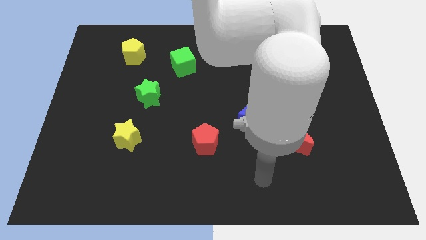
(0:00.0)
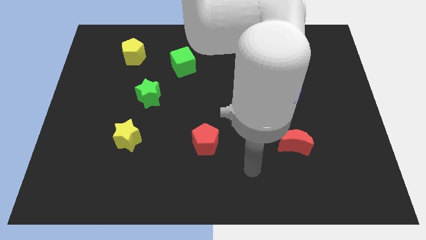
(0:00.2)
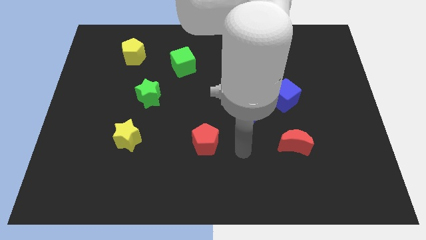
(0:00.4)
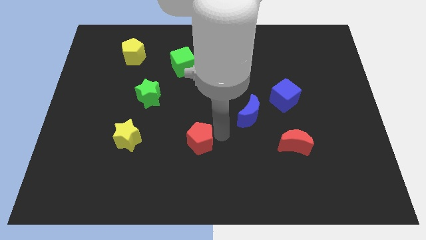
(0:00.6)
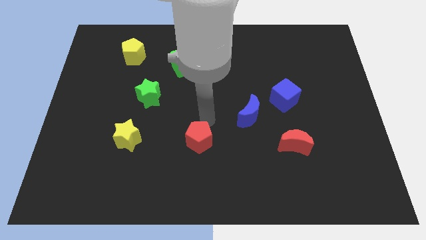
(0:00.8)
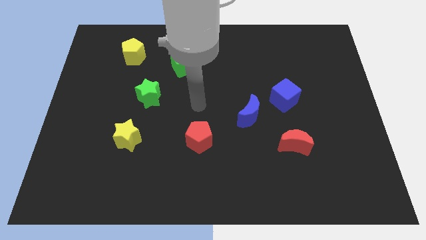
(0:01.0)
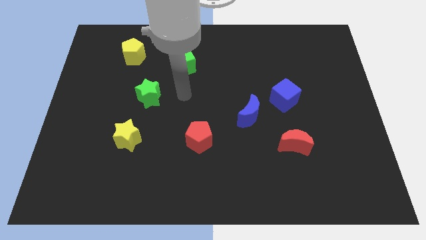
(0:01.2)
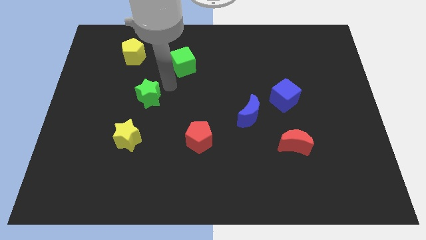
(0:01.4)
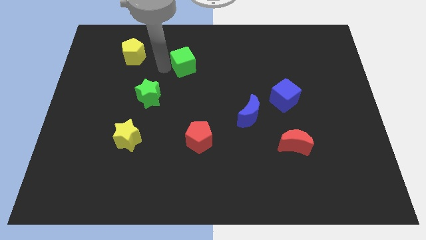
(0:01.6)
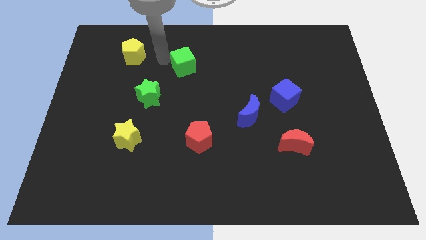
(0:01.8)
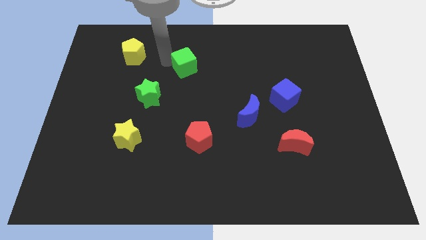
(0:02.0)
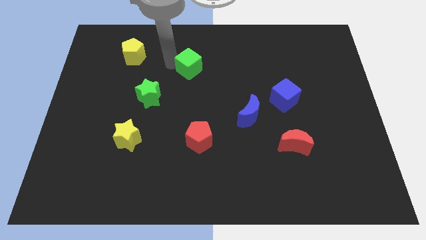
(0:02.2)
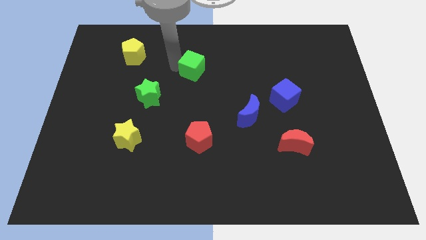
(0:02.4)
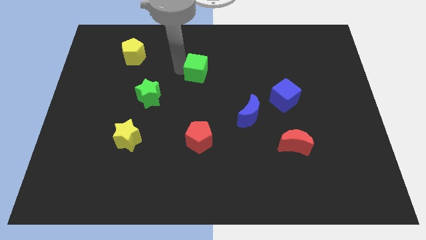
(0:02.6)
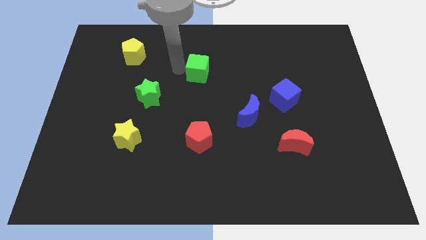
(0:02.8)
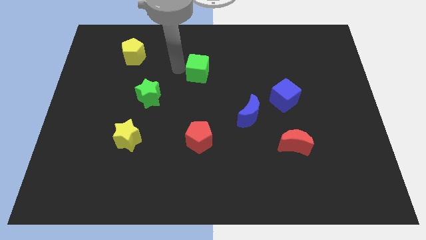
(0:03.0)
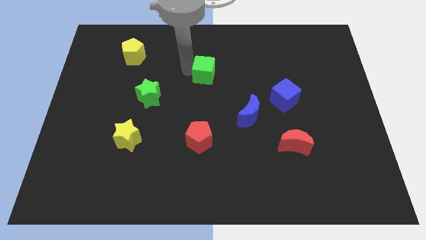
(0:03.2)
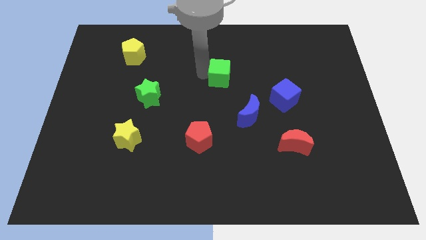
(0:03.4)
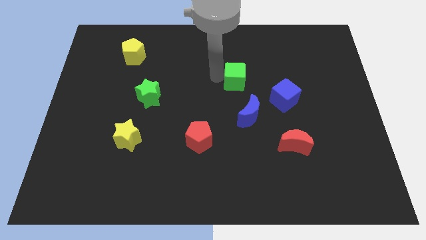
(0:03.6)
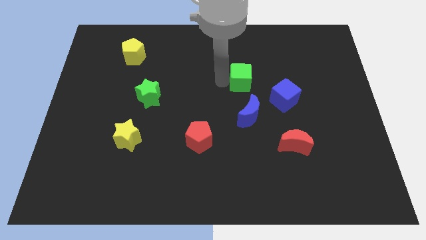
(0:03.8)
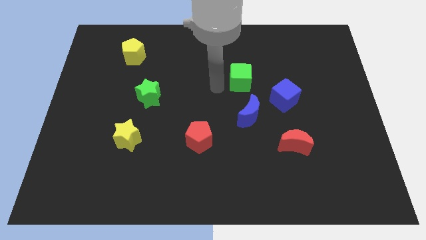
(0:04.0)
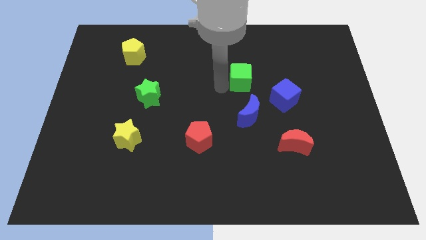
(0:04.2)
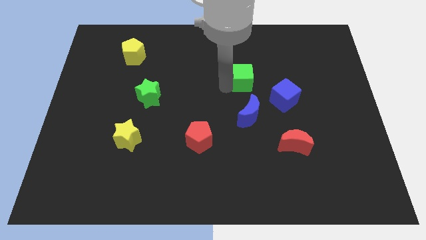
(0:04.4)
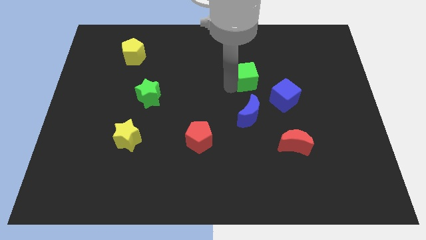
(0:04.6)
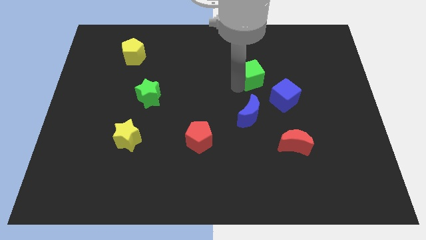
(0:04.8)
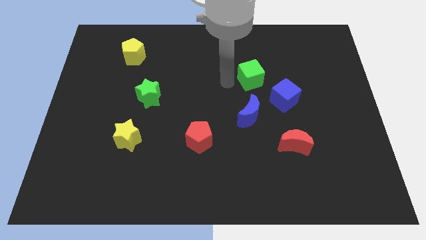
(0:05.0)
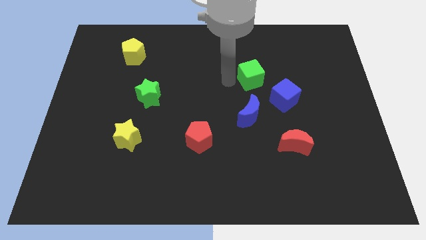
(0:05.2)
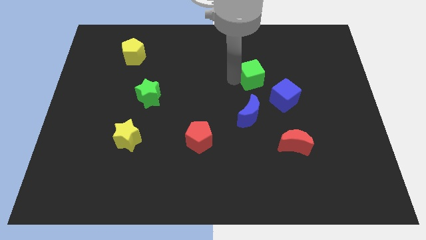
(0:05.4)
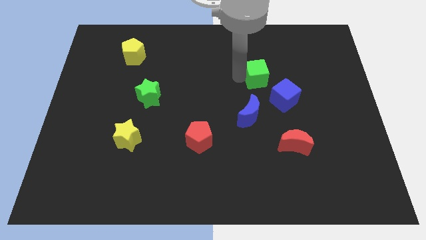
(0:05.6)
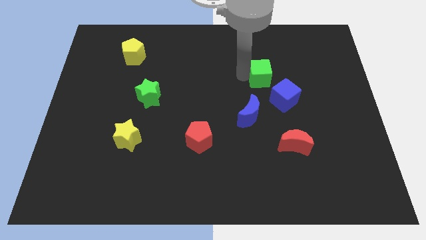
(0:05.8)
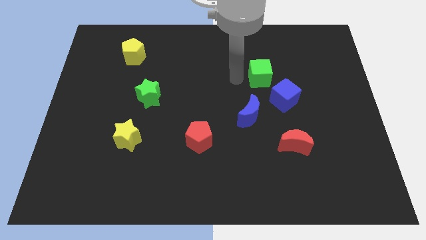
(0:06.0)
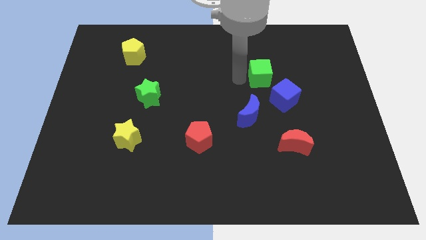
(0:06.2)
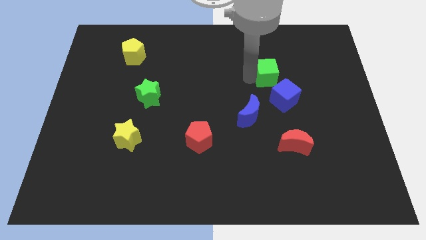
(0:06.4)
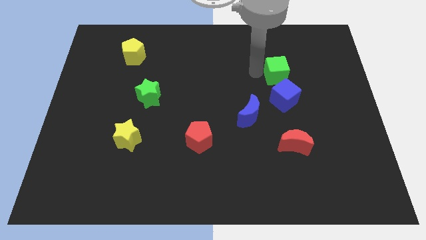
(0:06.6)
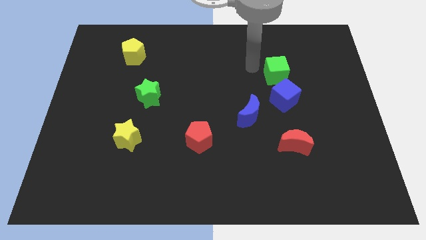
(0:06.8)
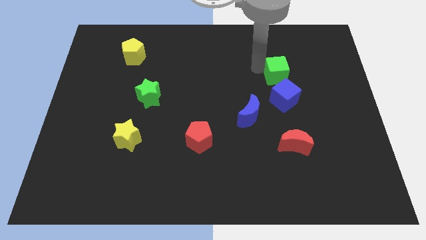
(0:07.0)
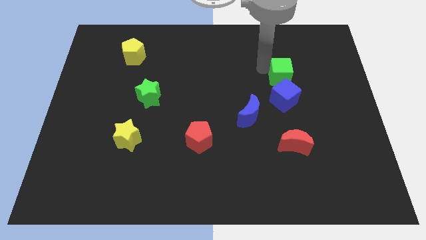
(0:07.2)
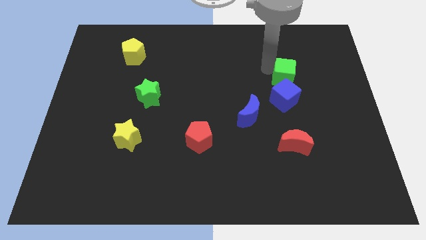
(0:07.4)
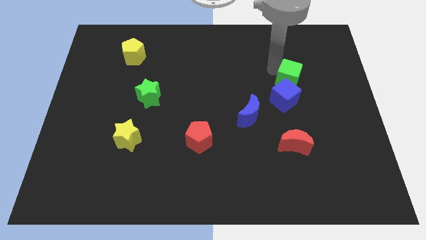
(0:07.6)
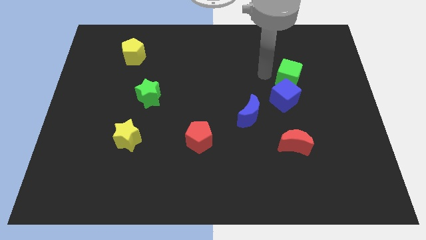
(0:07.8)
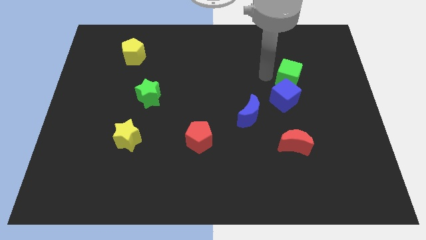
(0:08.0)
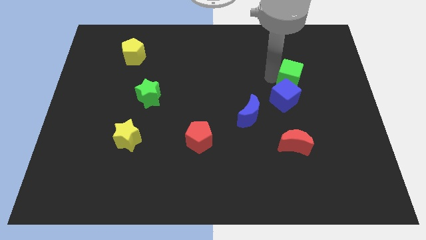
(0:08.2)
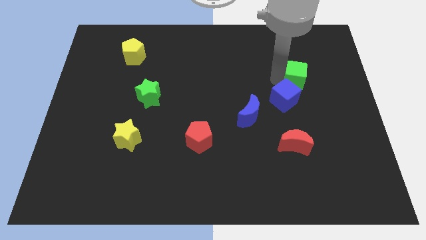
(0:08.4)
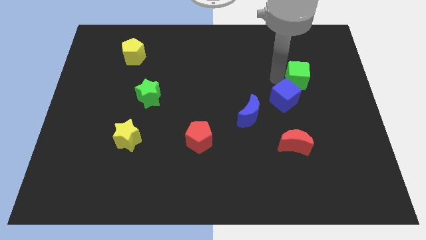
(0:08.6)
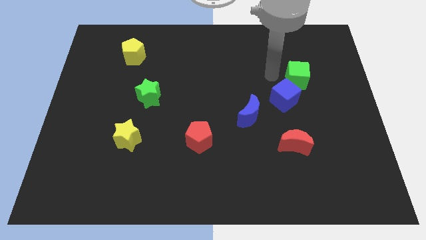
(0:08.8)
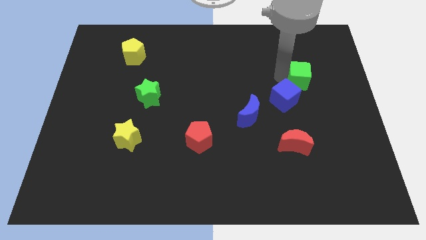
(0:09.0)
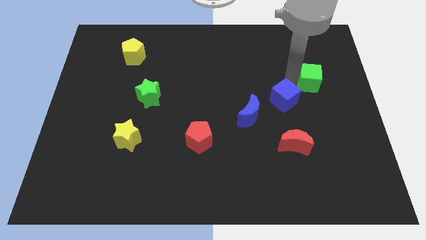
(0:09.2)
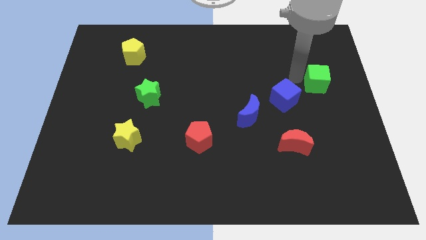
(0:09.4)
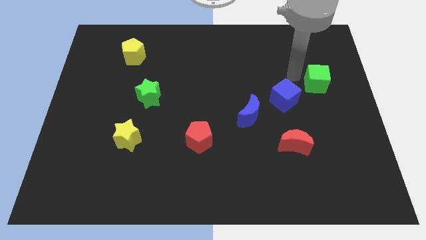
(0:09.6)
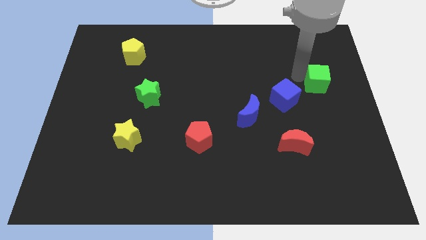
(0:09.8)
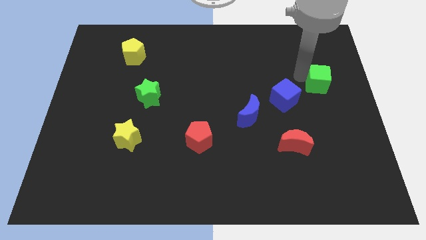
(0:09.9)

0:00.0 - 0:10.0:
move the green cube to the right side of the board

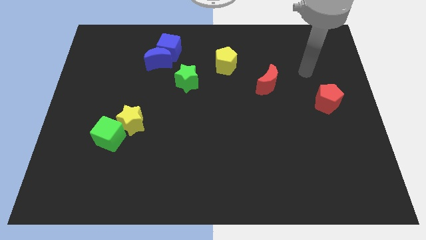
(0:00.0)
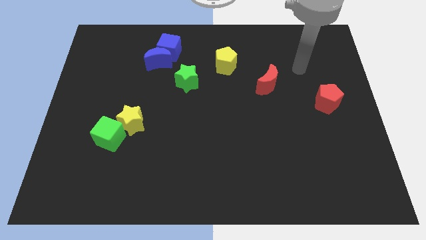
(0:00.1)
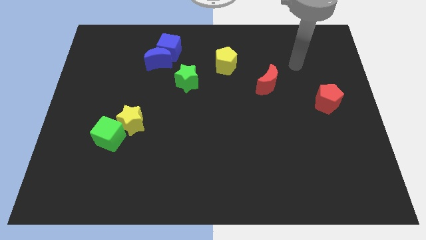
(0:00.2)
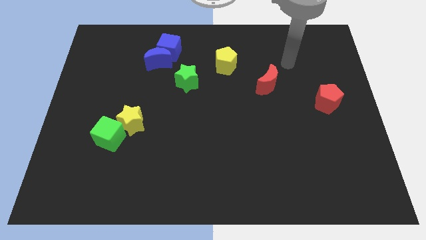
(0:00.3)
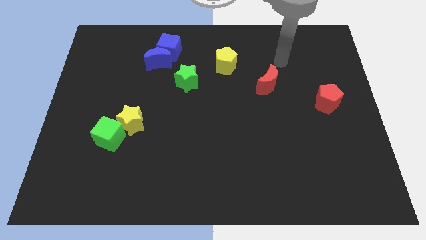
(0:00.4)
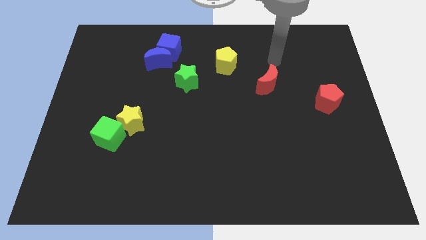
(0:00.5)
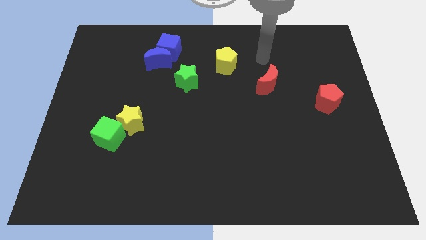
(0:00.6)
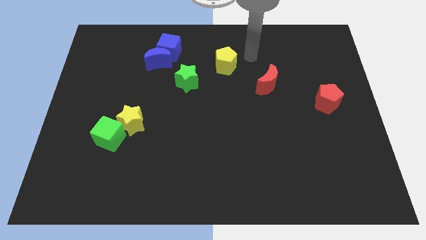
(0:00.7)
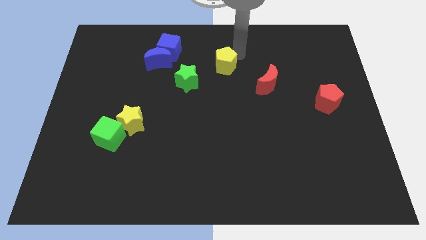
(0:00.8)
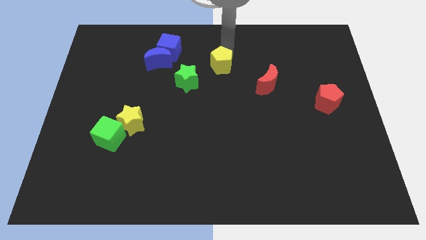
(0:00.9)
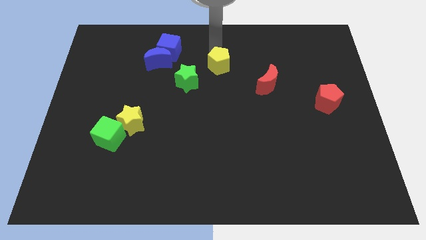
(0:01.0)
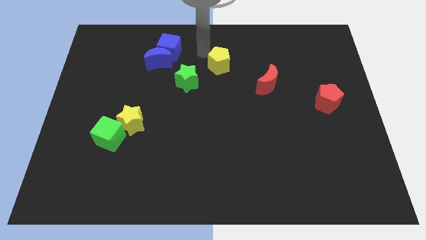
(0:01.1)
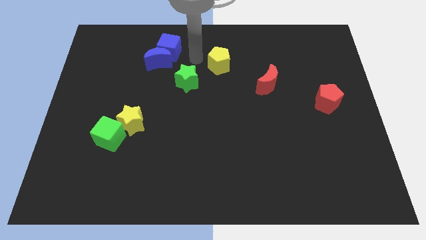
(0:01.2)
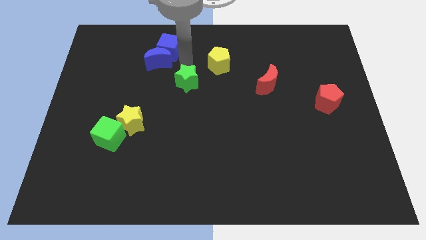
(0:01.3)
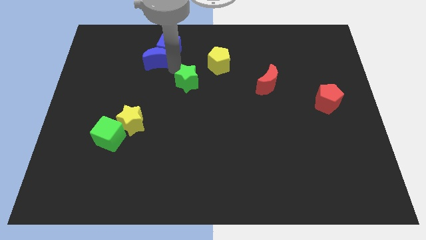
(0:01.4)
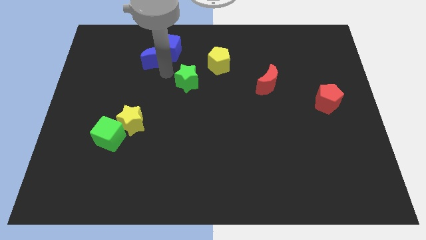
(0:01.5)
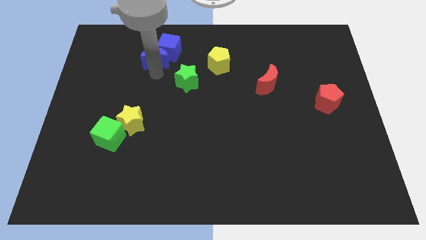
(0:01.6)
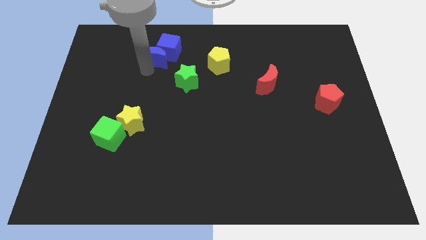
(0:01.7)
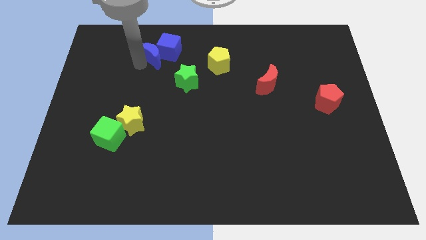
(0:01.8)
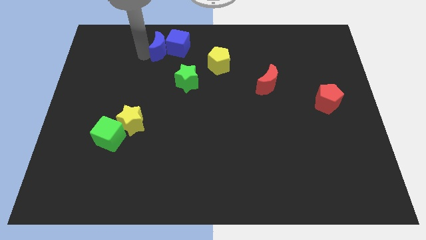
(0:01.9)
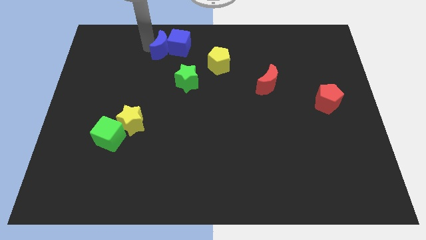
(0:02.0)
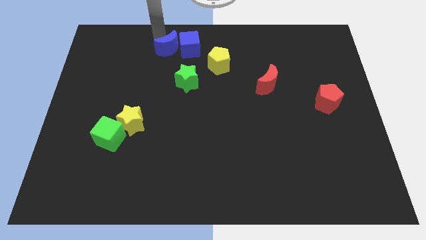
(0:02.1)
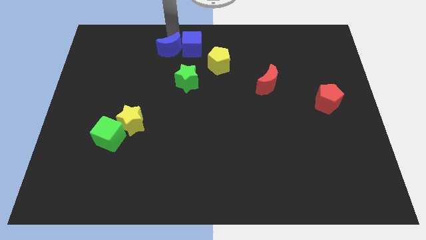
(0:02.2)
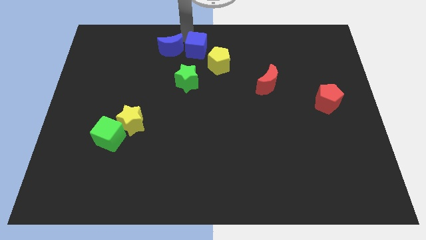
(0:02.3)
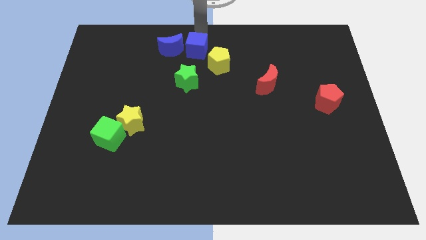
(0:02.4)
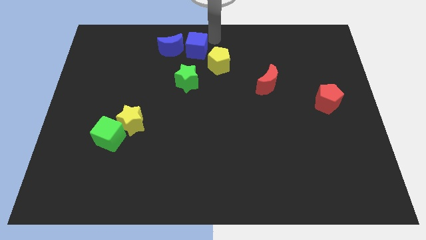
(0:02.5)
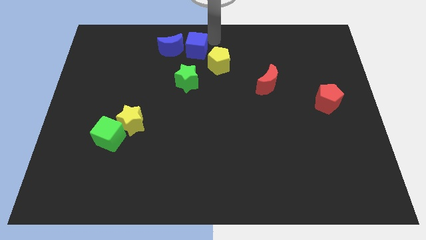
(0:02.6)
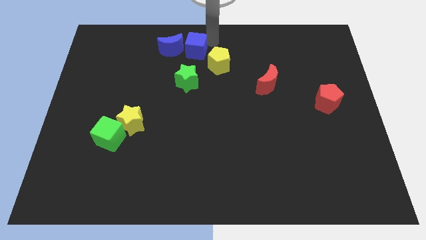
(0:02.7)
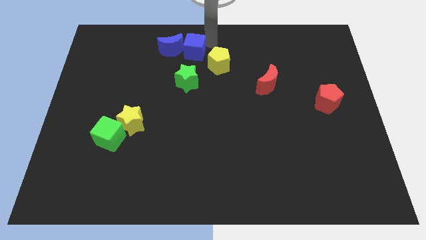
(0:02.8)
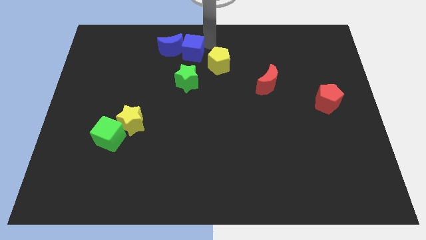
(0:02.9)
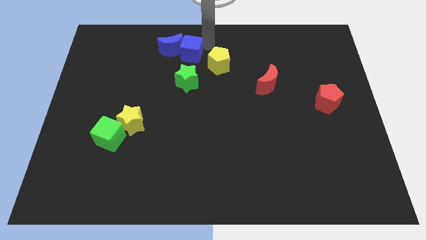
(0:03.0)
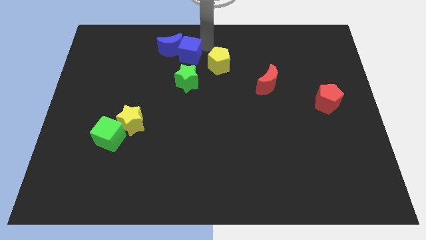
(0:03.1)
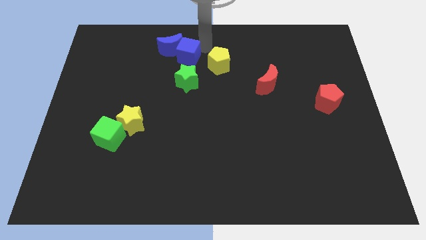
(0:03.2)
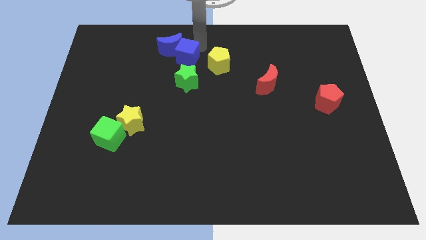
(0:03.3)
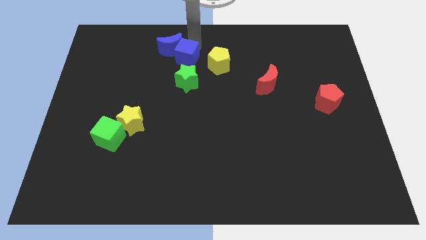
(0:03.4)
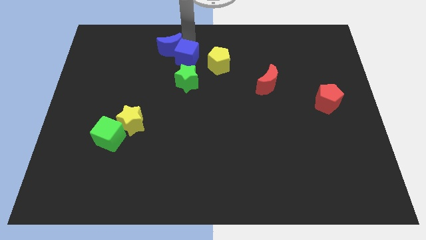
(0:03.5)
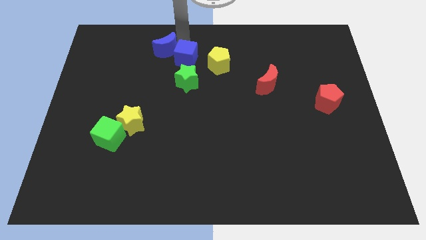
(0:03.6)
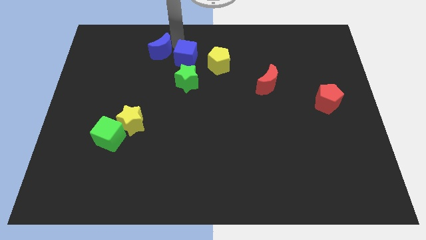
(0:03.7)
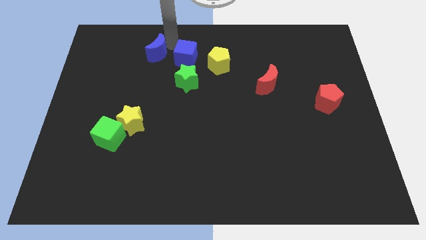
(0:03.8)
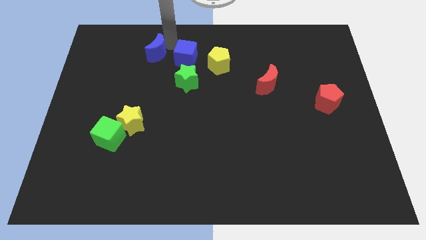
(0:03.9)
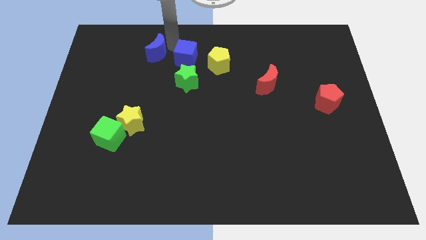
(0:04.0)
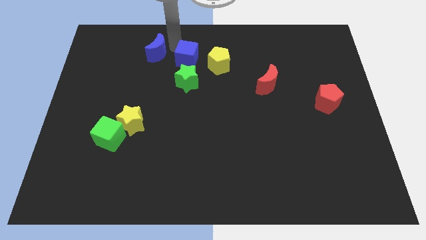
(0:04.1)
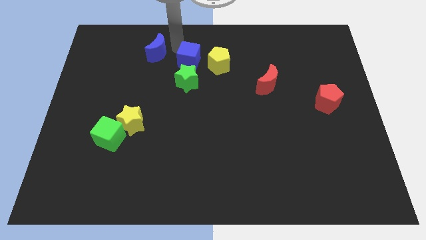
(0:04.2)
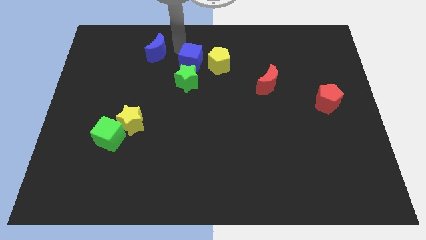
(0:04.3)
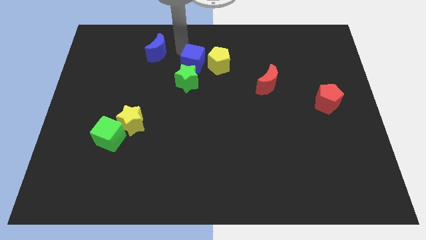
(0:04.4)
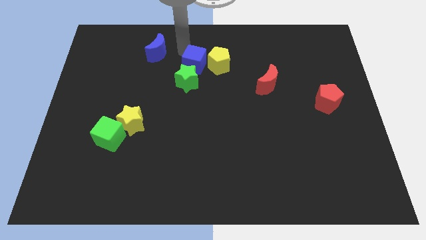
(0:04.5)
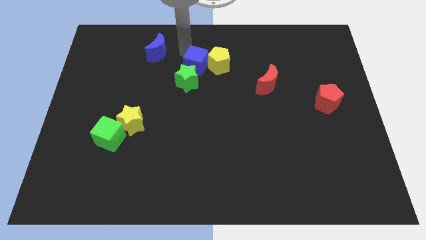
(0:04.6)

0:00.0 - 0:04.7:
slide the blue cube to the center of the board
